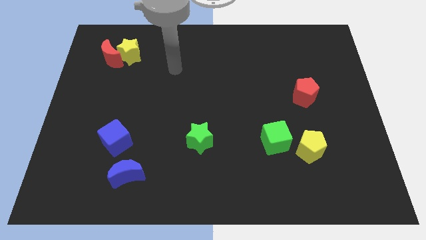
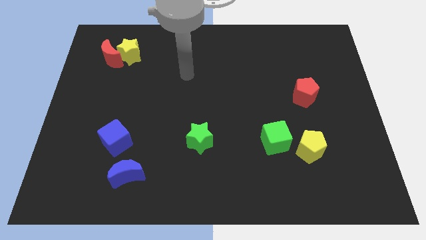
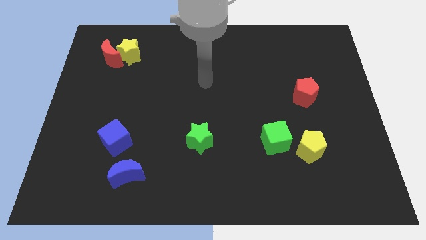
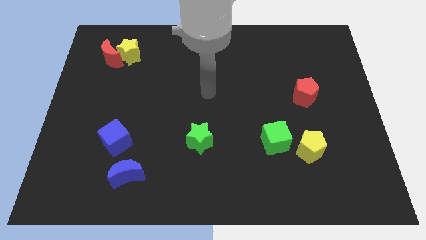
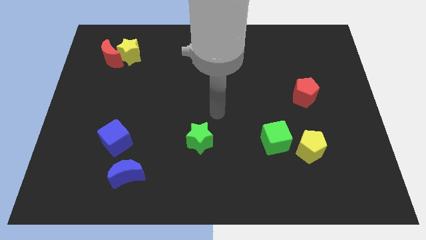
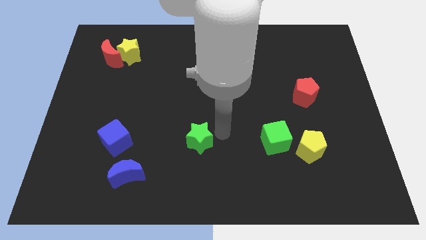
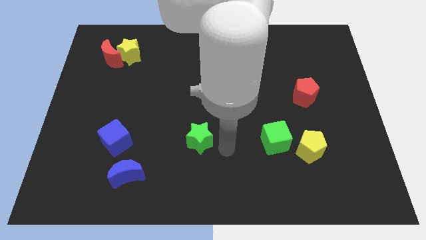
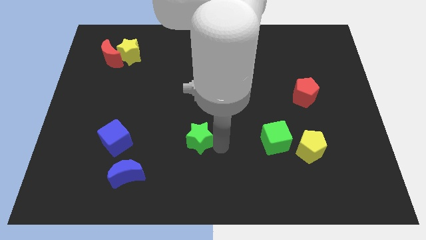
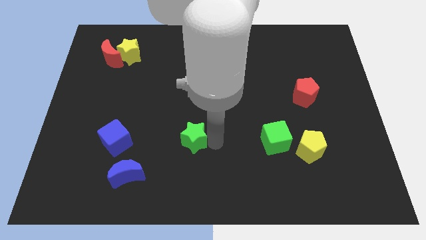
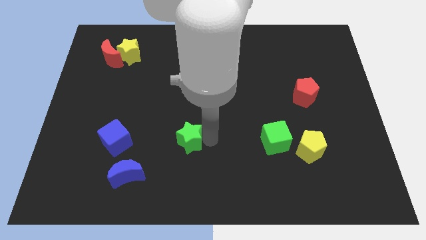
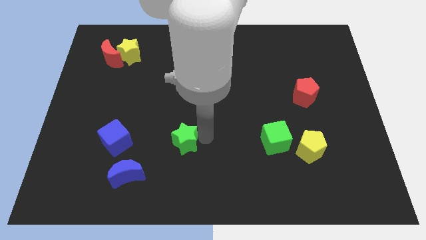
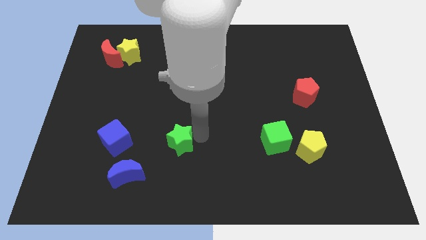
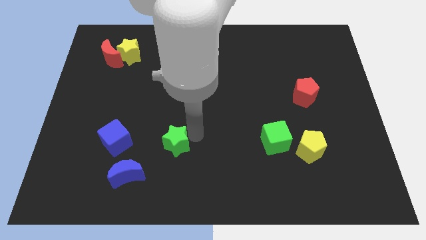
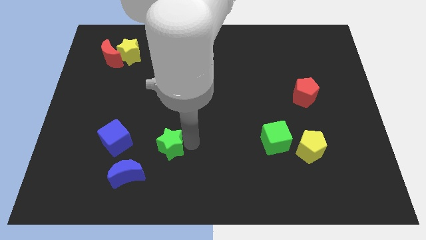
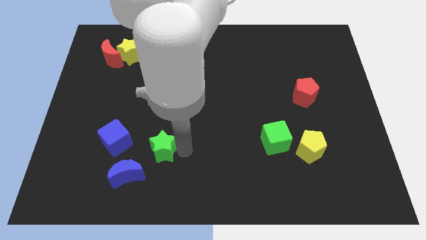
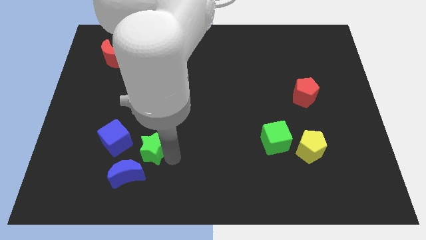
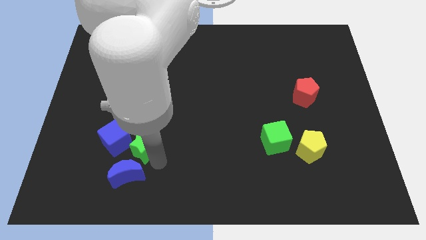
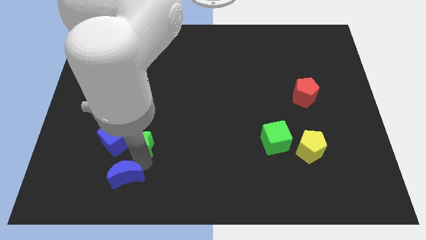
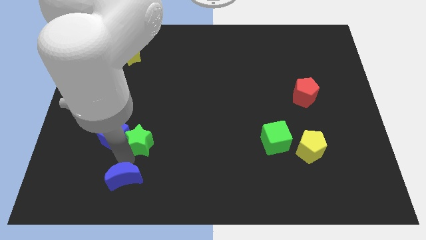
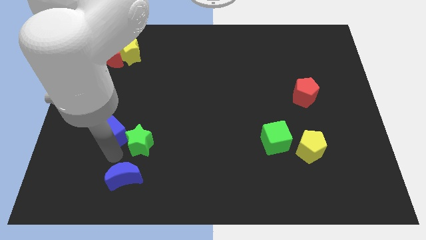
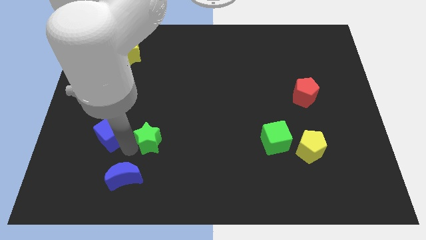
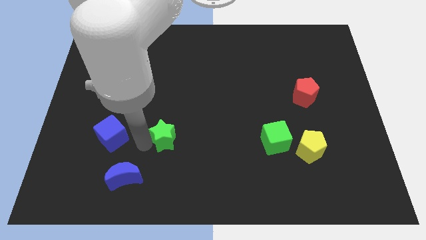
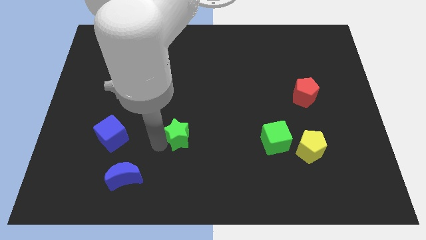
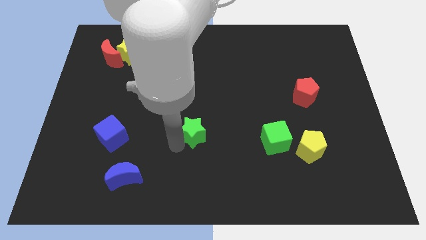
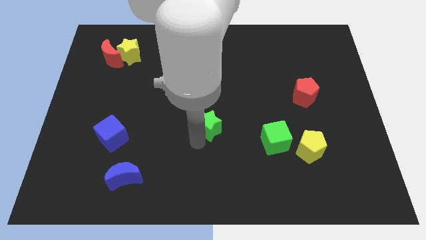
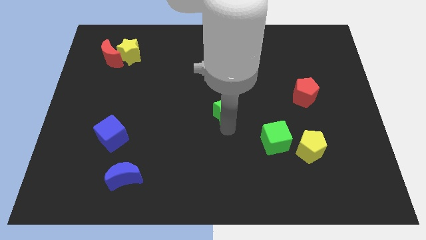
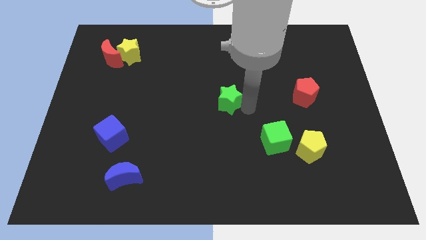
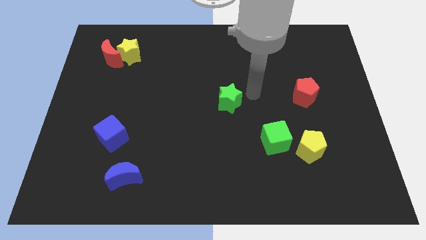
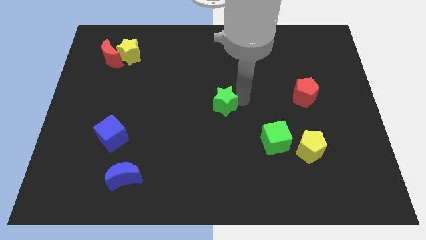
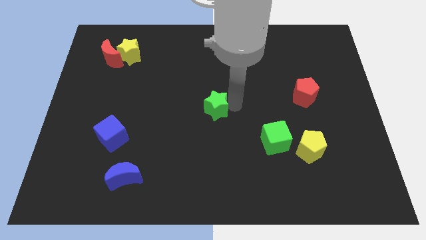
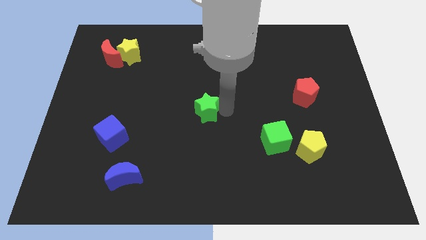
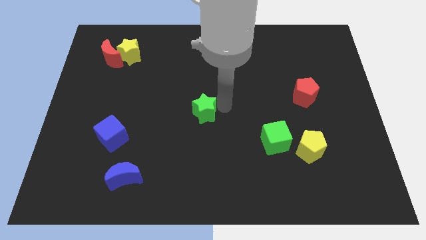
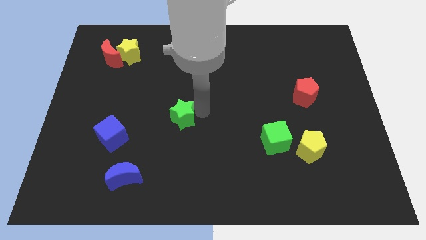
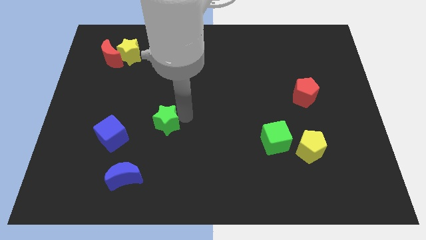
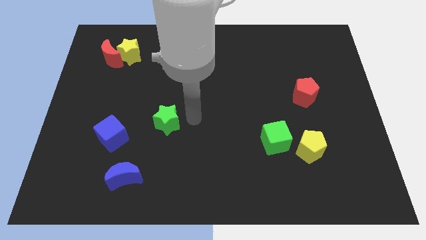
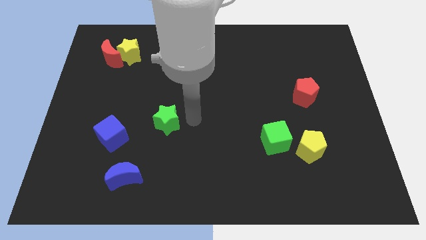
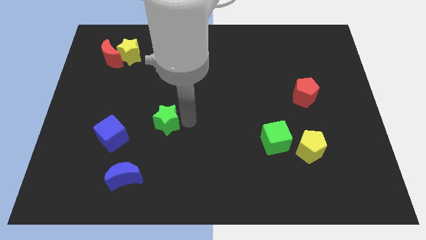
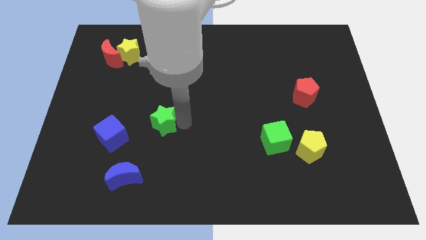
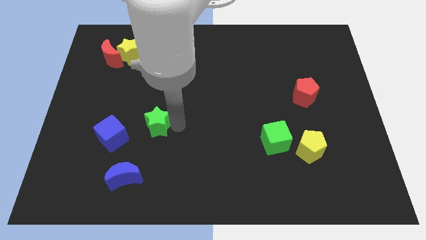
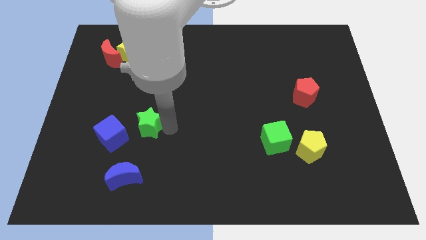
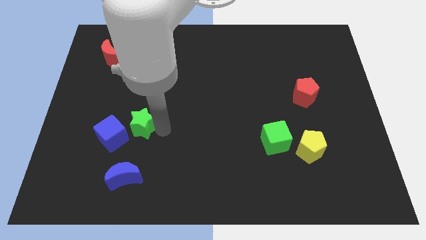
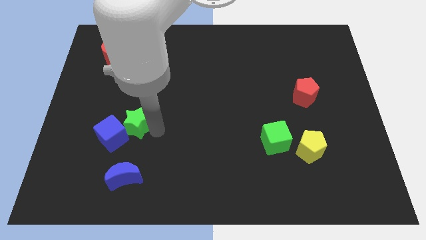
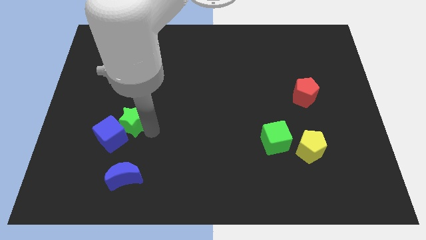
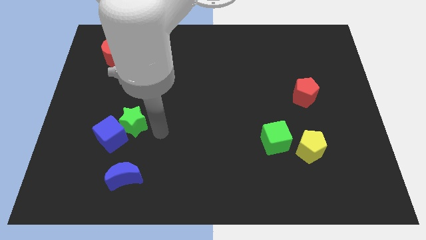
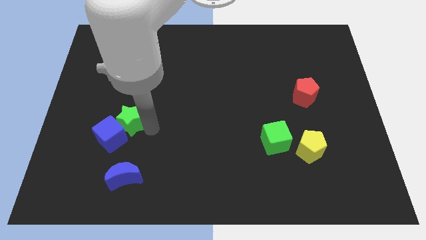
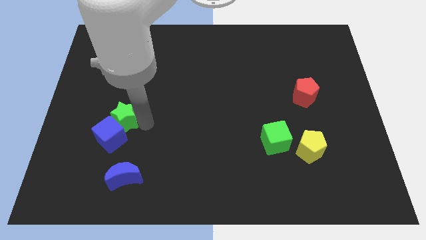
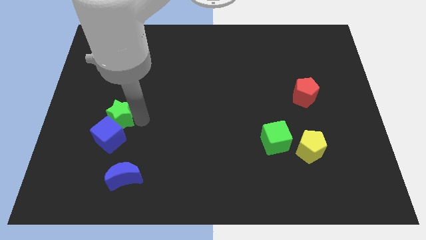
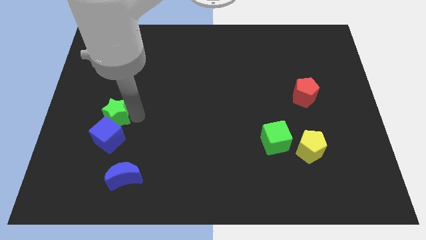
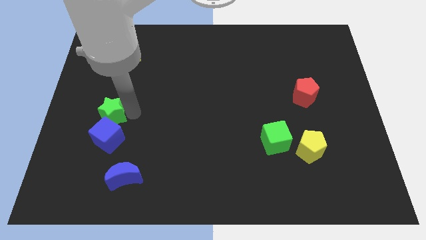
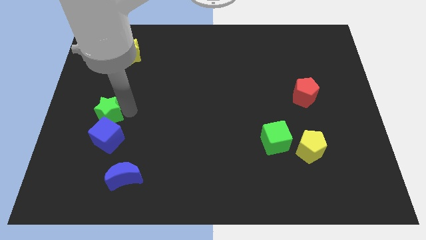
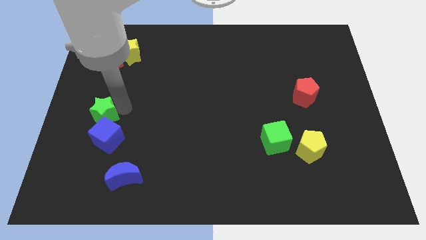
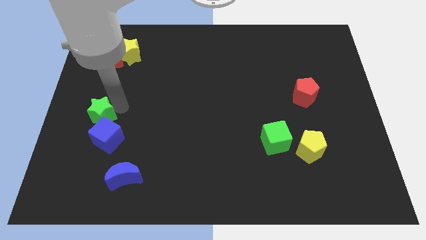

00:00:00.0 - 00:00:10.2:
put the green star to the left side of the board

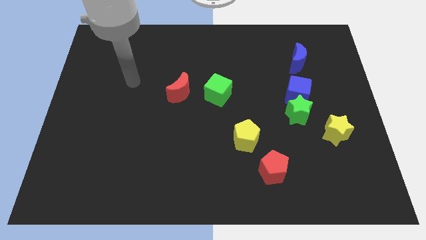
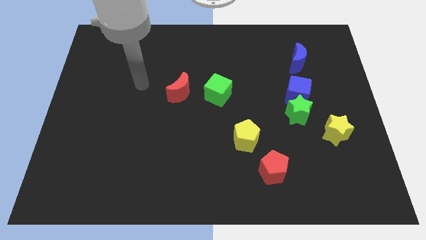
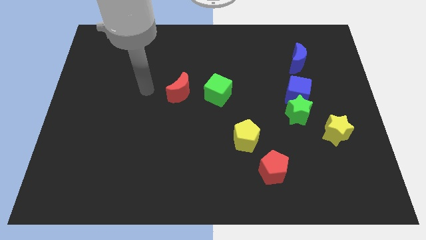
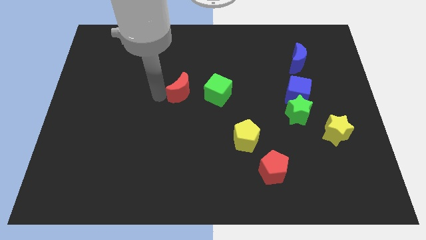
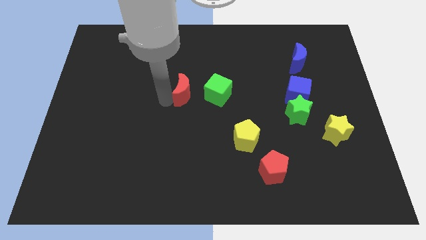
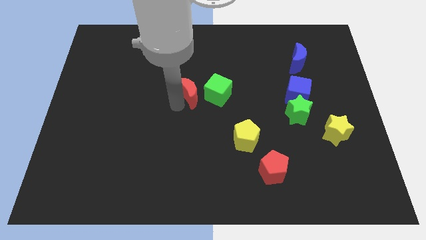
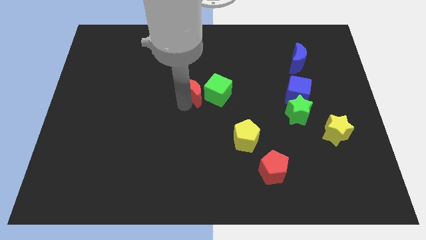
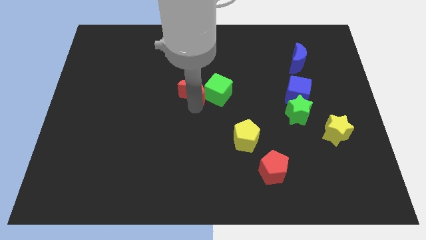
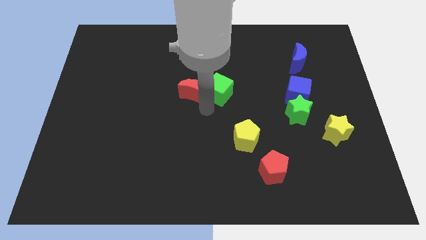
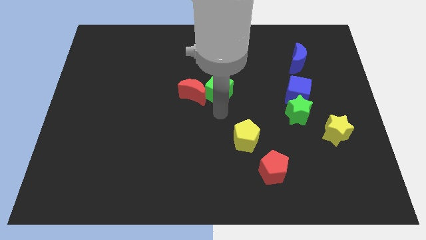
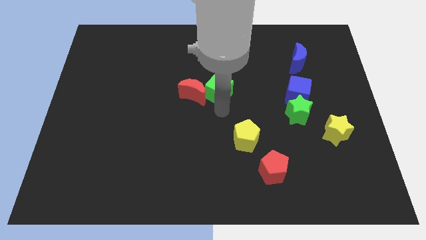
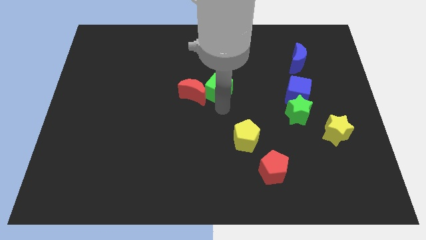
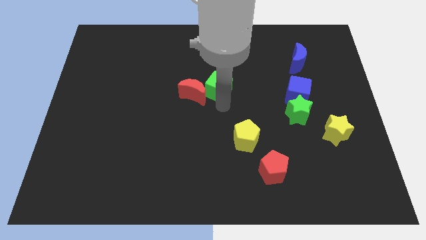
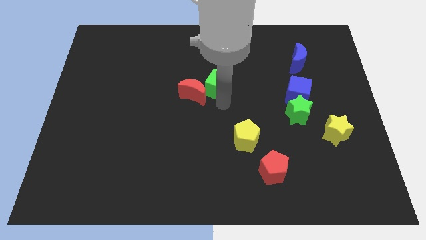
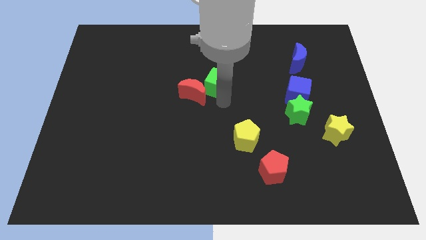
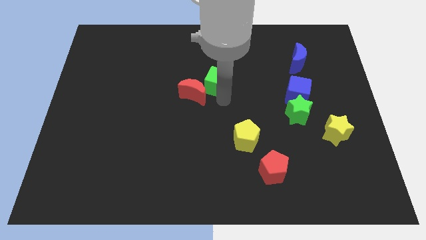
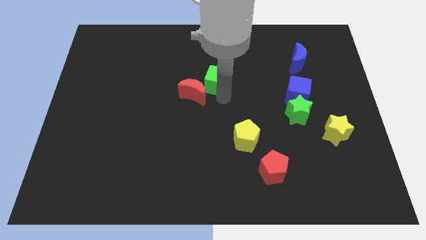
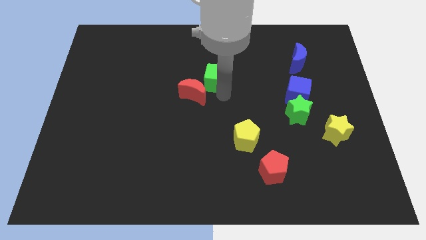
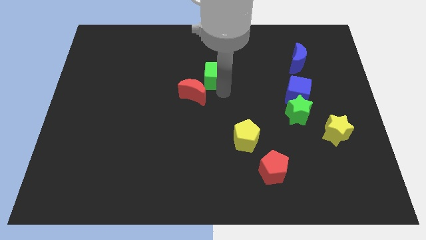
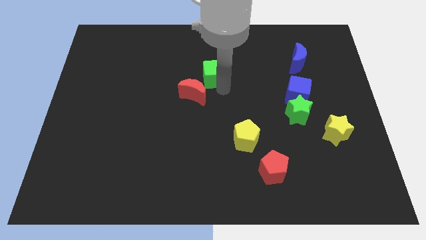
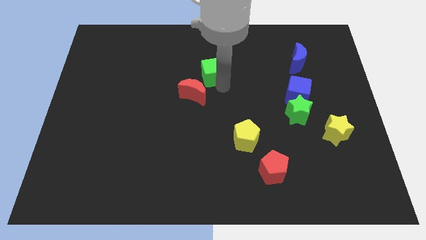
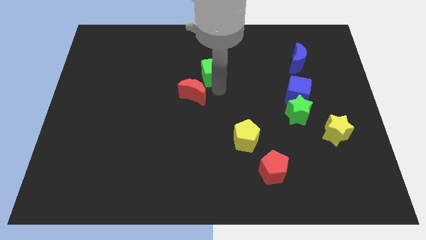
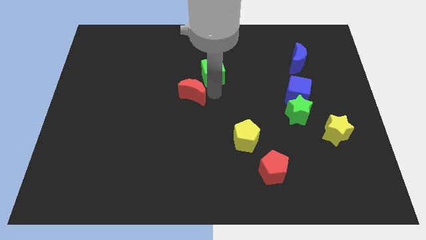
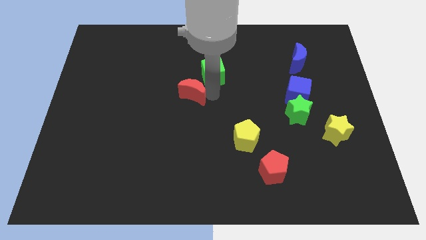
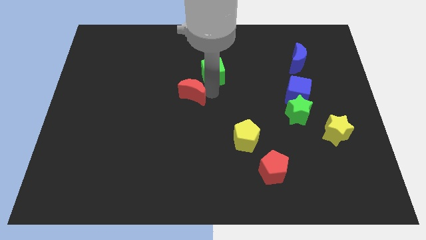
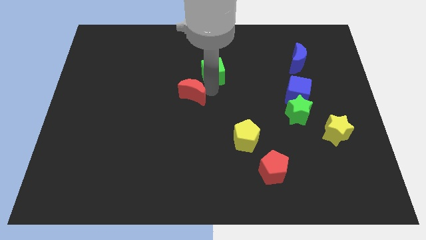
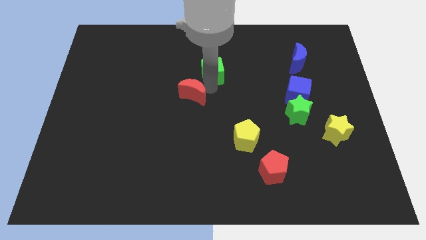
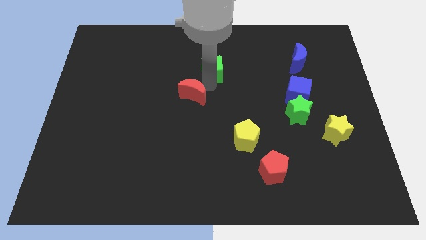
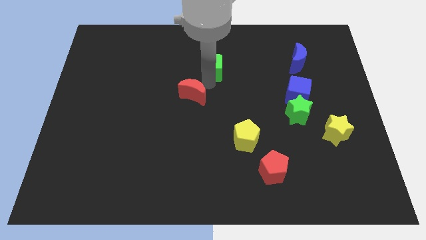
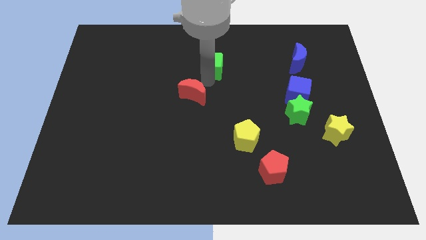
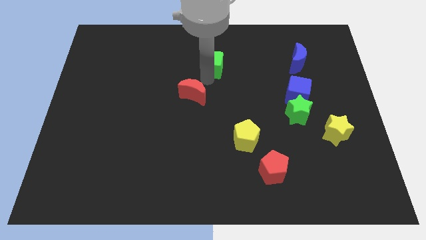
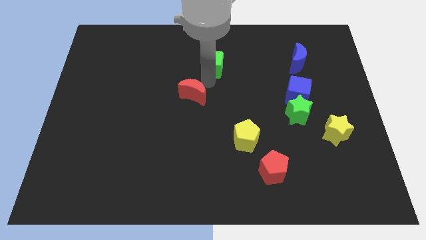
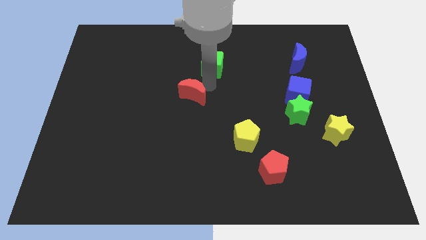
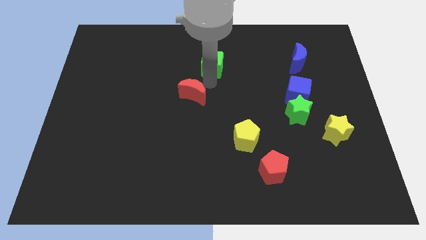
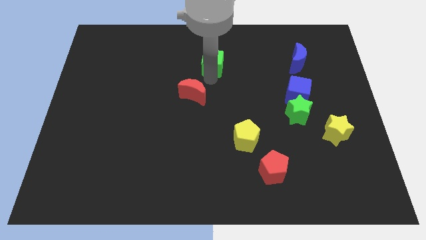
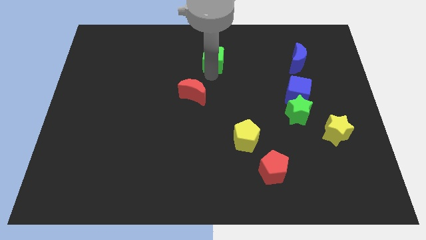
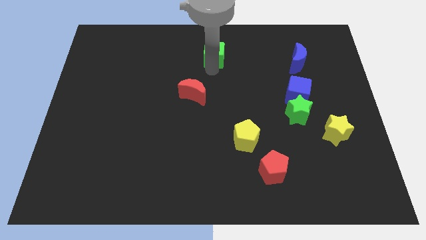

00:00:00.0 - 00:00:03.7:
put the green cube to the top
